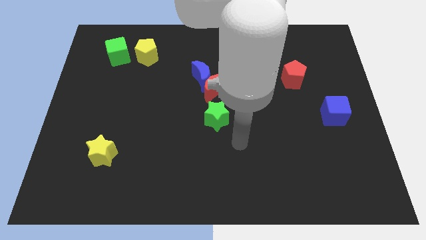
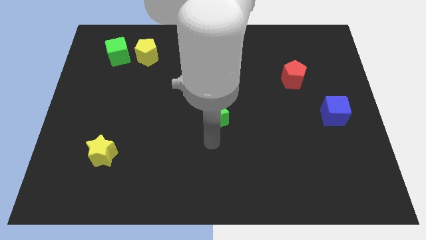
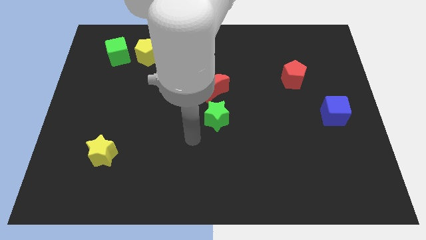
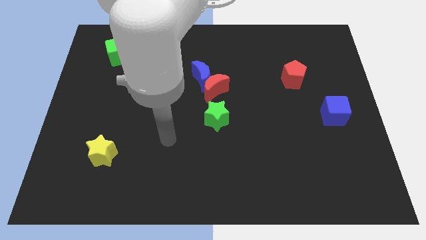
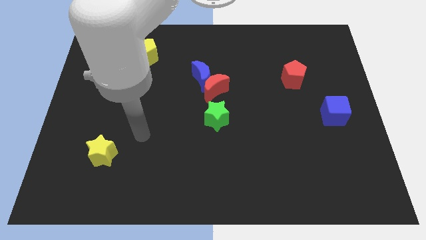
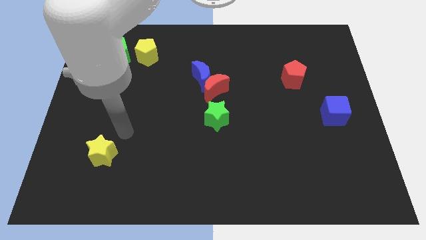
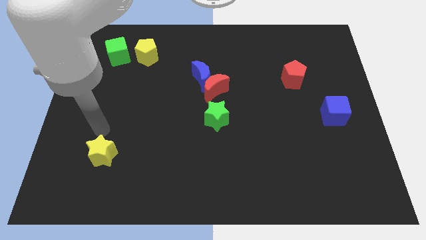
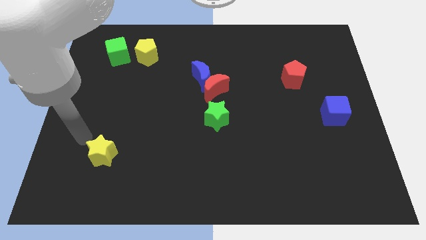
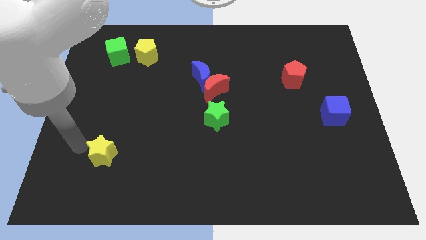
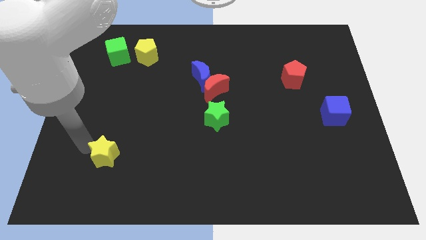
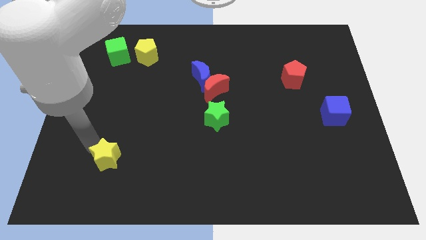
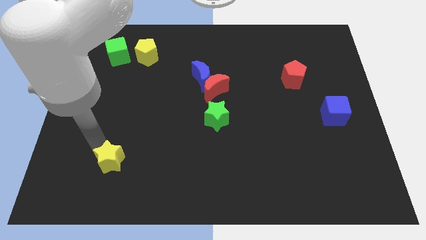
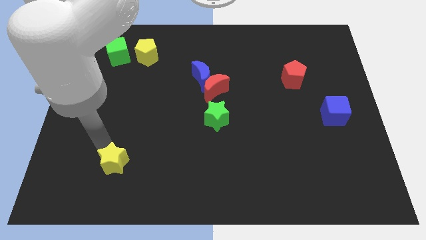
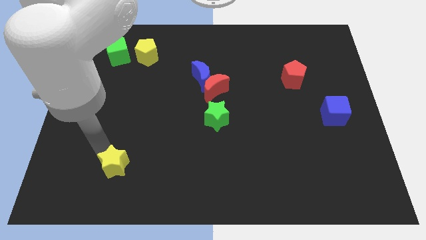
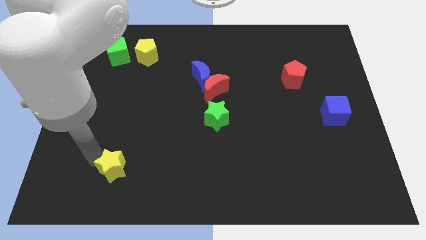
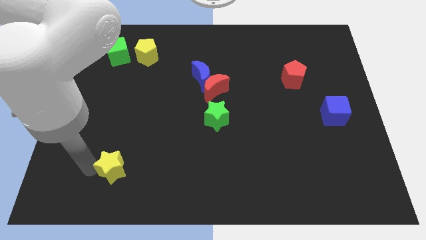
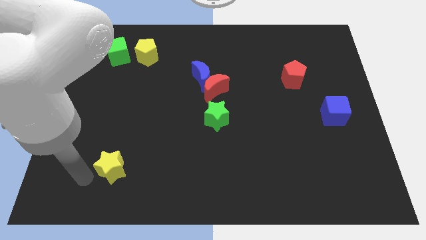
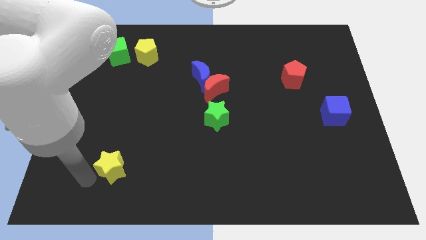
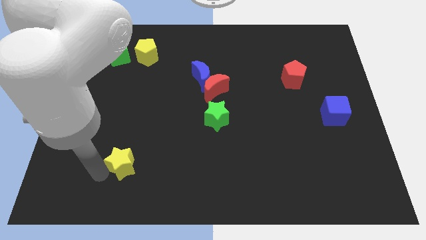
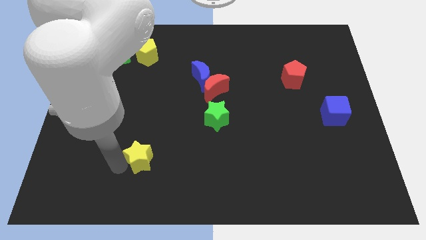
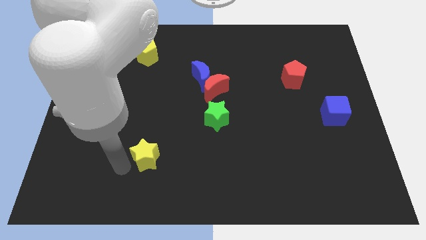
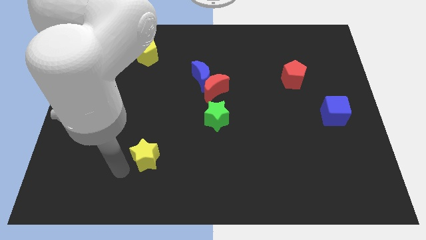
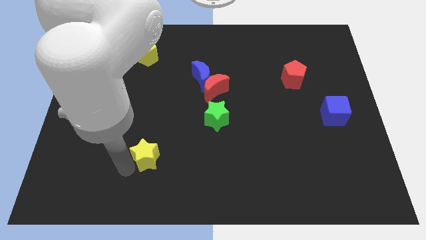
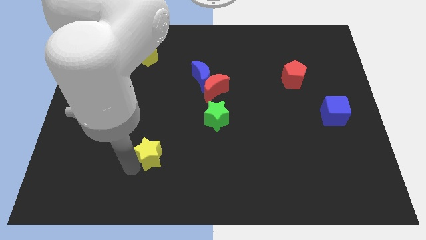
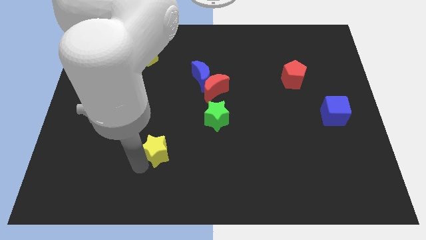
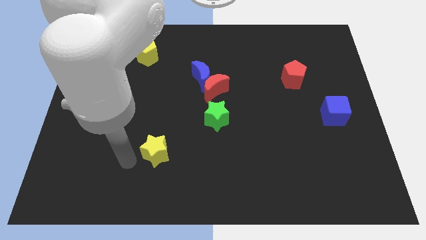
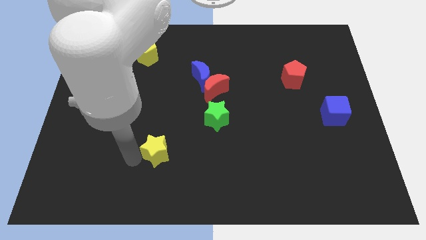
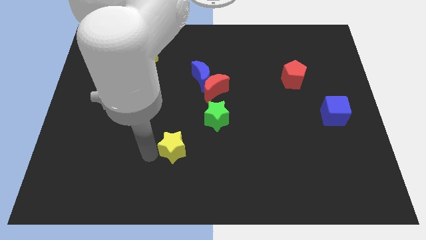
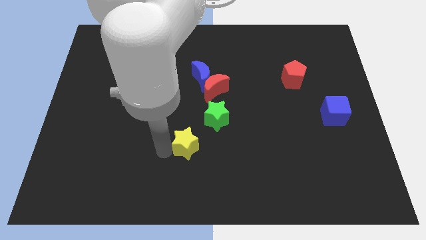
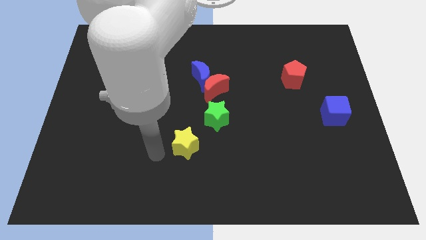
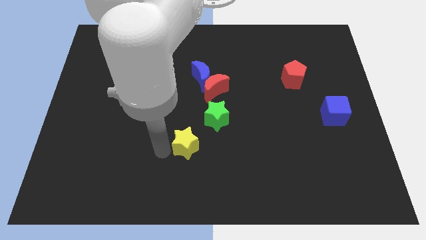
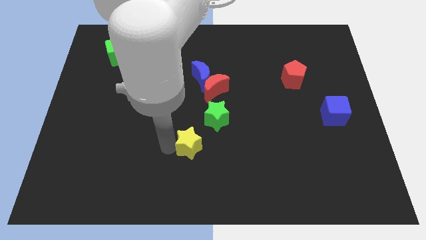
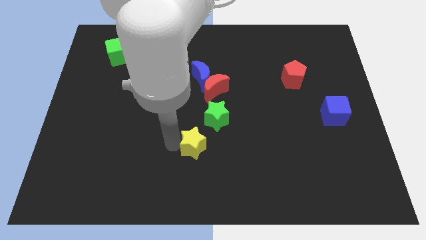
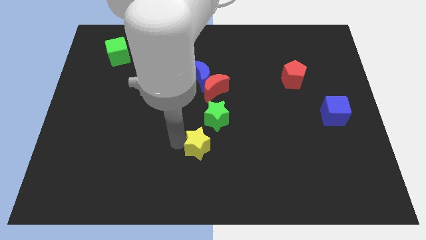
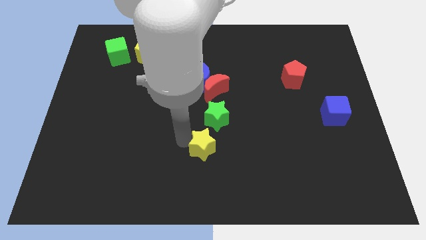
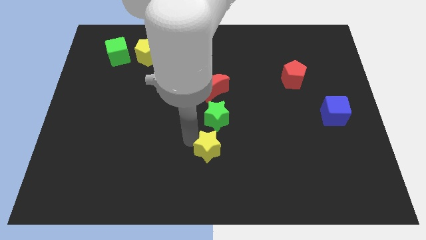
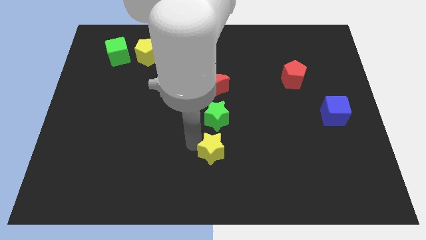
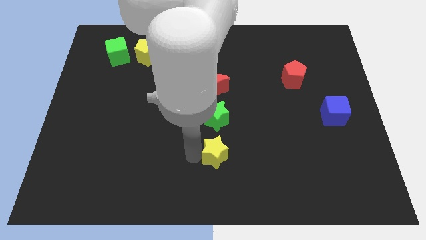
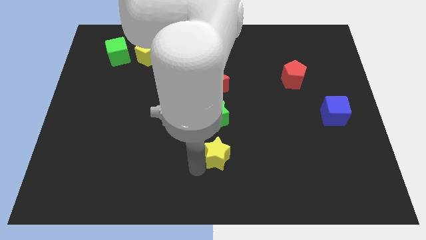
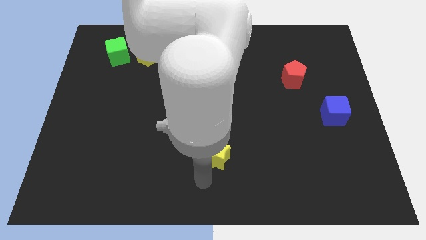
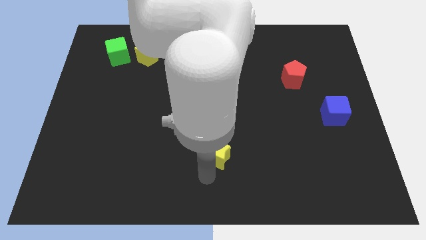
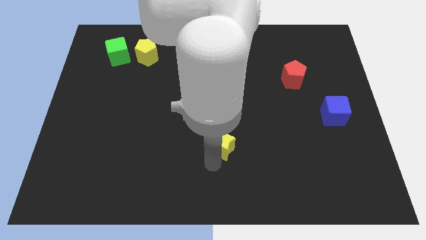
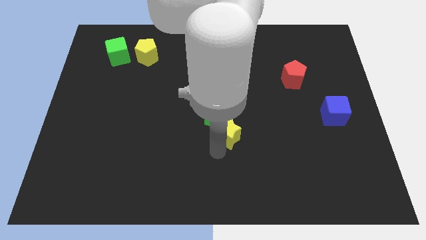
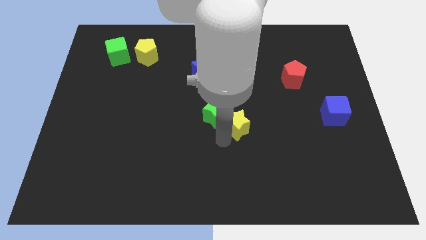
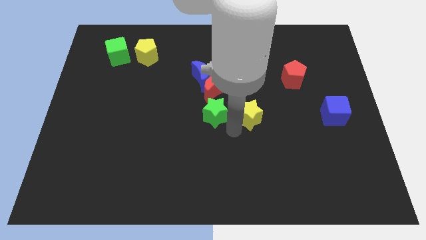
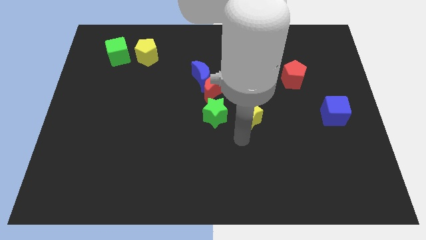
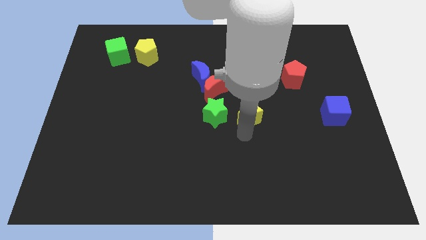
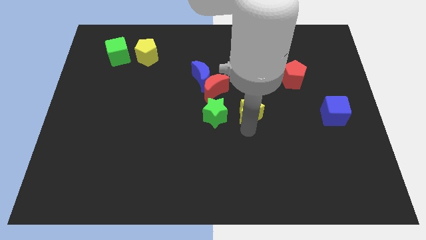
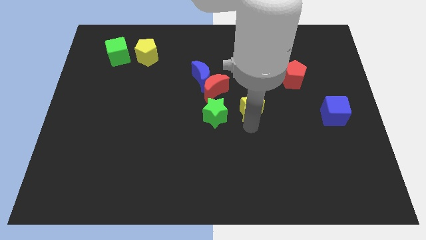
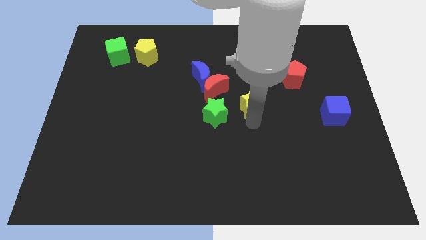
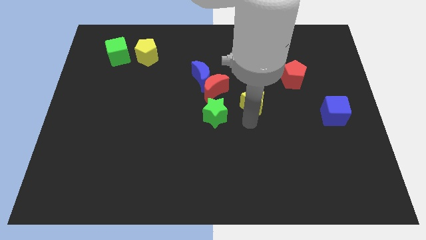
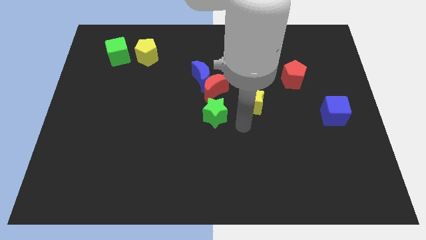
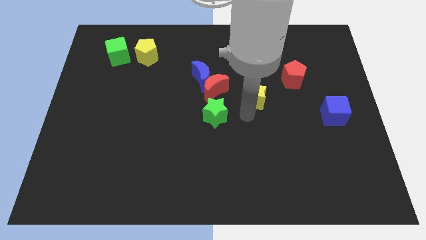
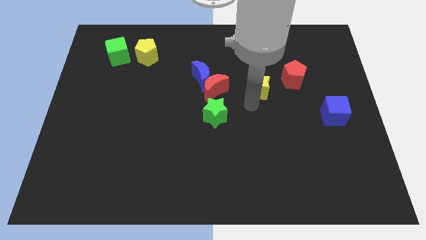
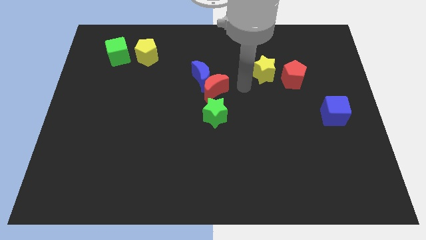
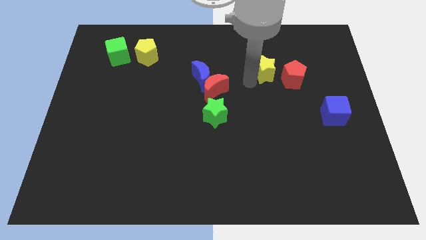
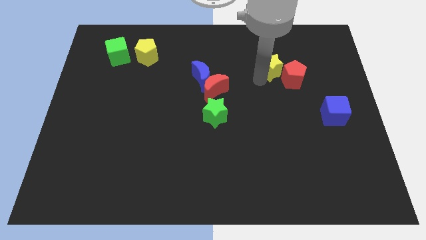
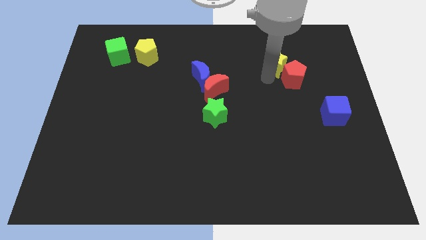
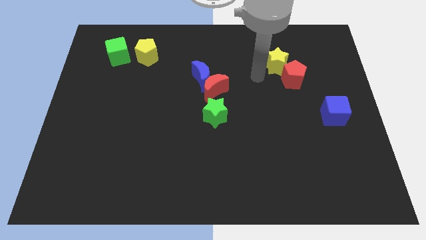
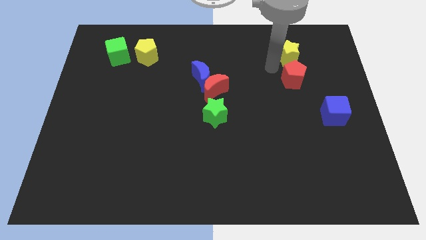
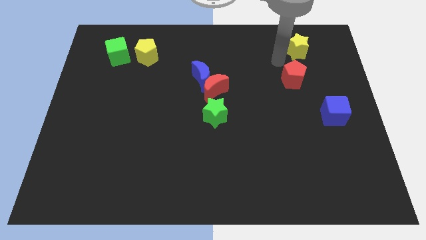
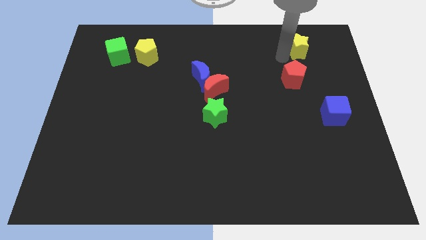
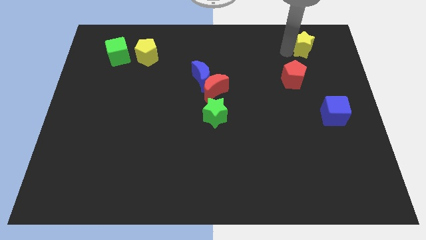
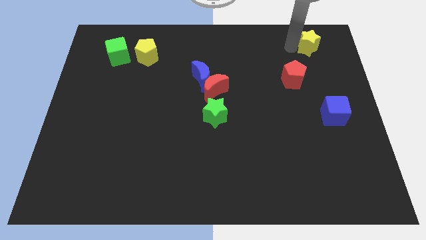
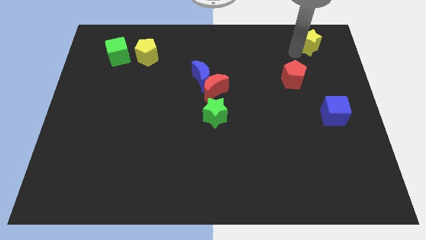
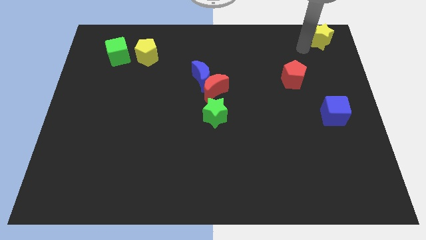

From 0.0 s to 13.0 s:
push the yellow star to the top right corner

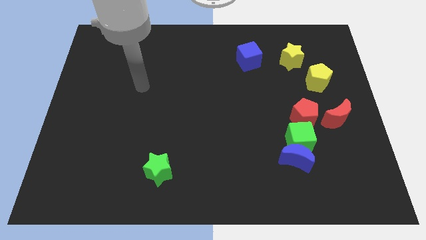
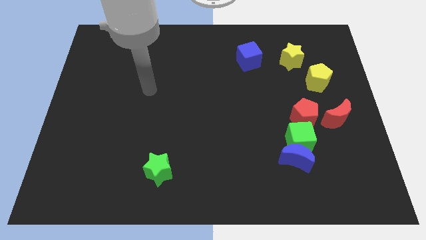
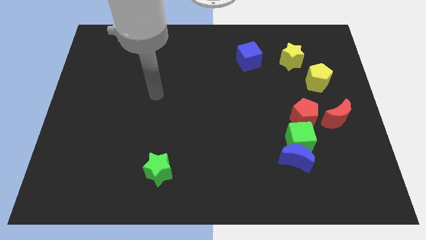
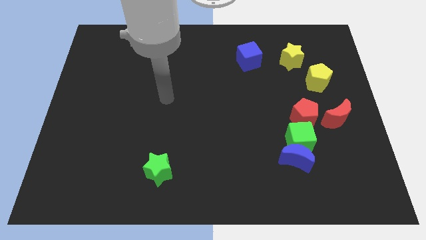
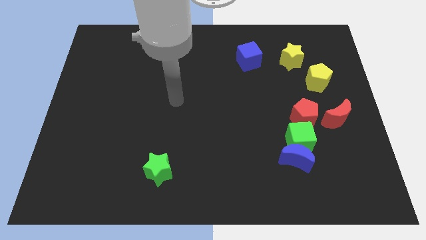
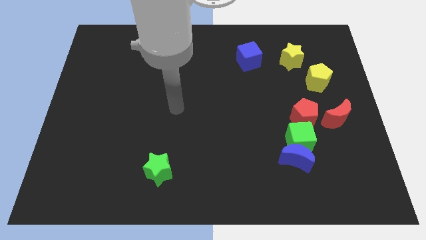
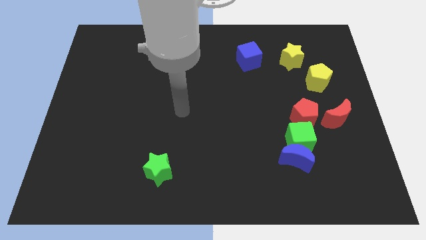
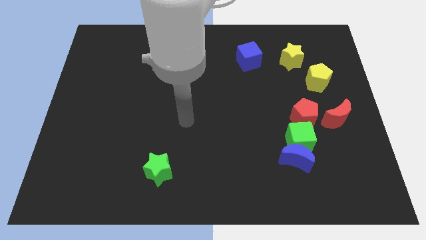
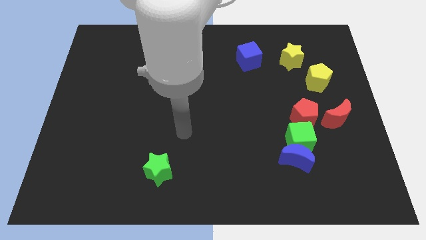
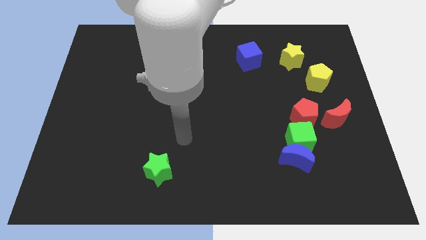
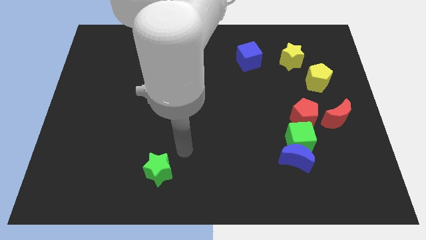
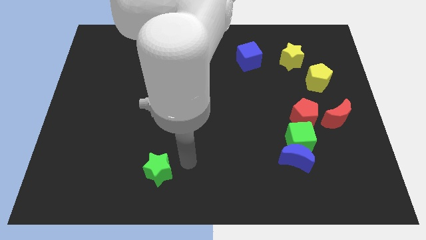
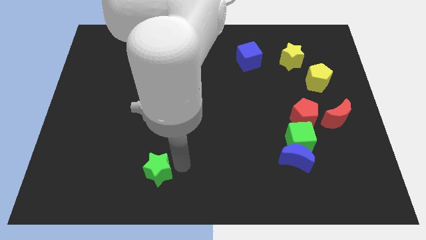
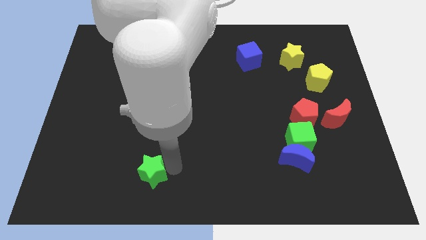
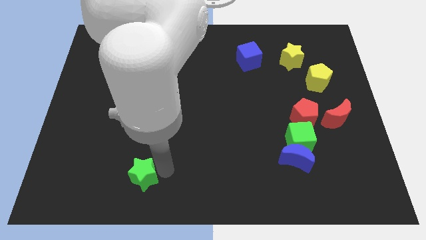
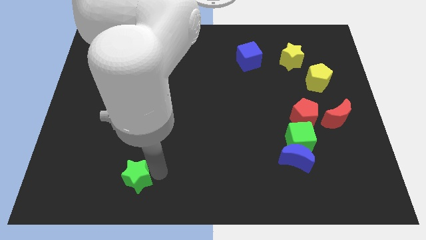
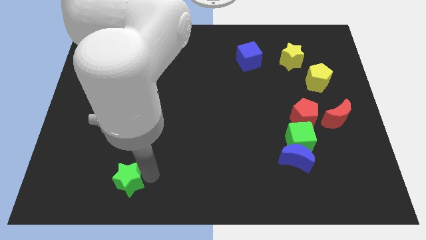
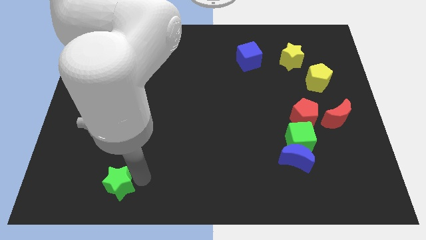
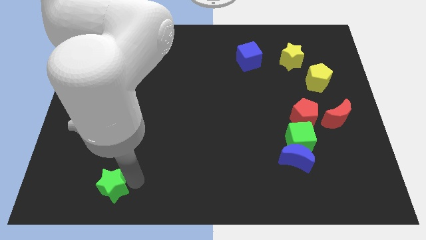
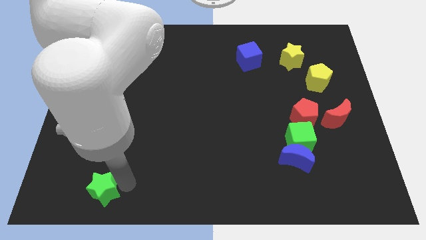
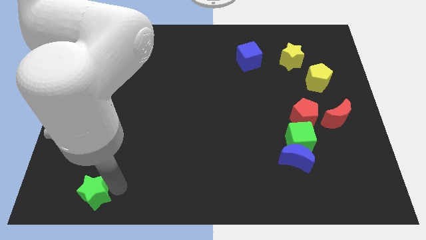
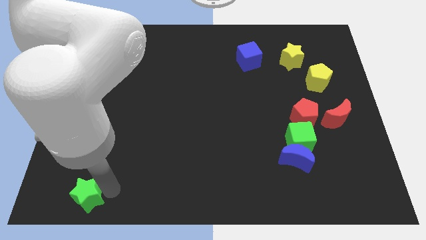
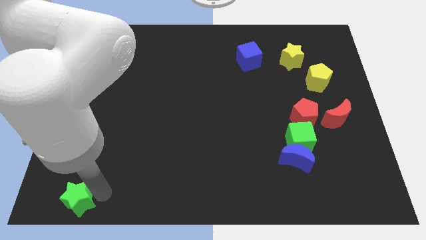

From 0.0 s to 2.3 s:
put the green star to the lower left corner
